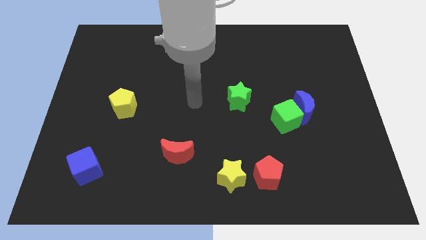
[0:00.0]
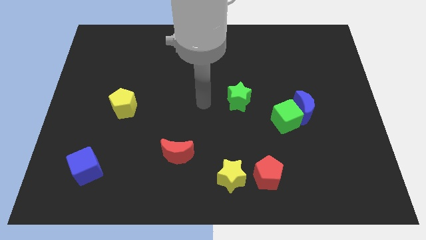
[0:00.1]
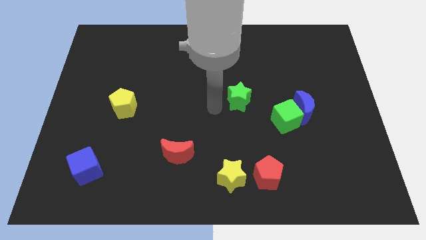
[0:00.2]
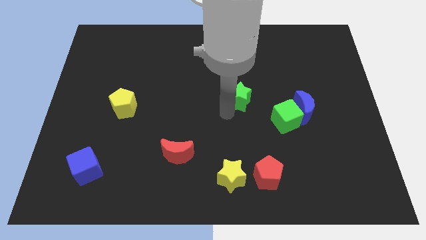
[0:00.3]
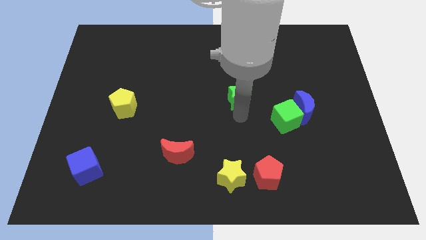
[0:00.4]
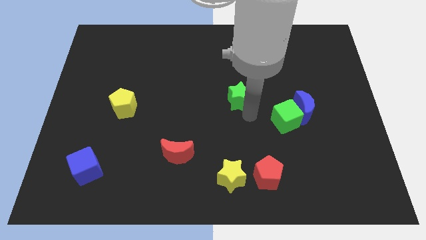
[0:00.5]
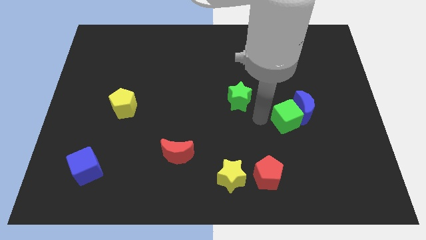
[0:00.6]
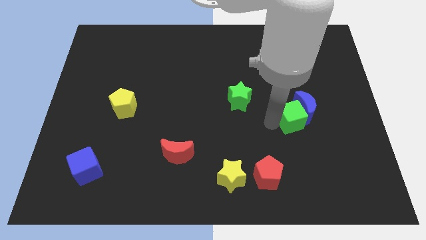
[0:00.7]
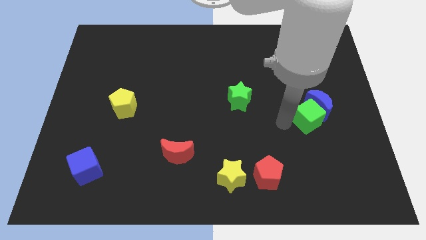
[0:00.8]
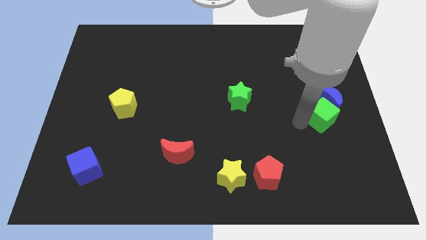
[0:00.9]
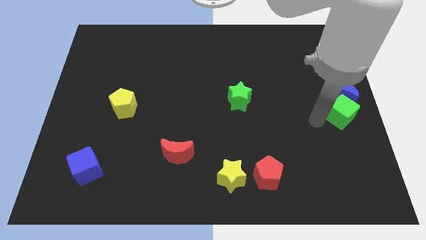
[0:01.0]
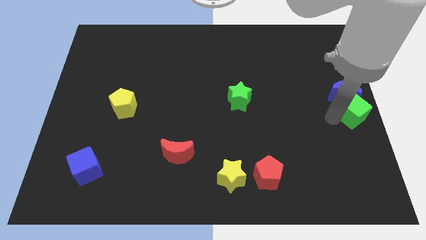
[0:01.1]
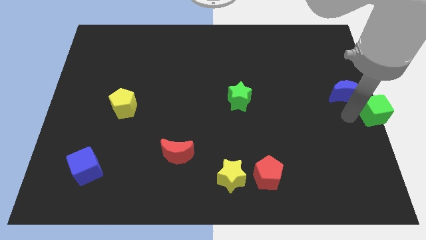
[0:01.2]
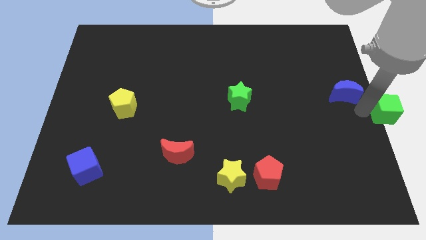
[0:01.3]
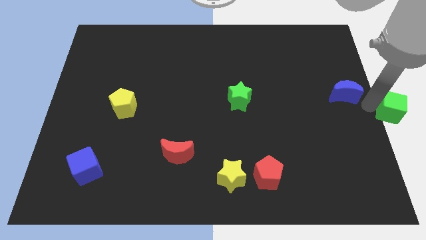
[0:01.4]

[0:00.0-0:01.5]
separate the blue moon from the green cube

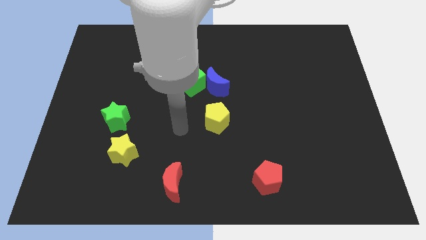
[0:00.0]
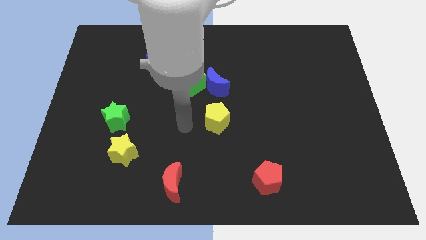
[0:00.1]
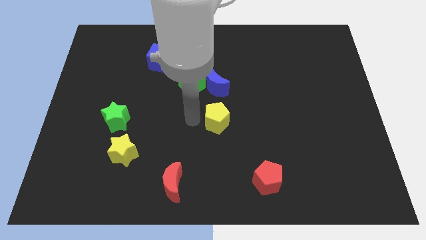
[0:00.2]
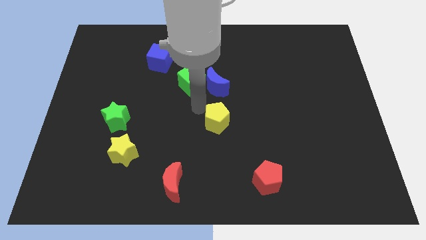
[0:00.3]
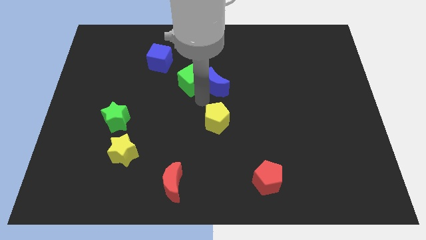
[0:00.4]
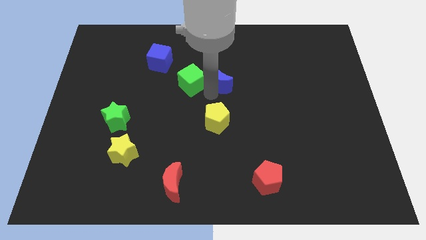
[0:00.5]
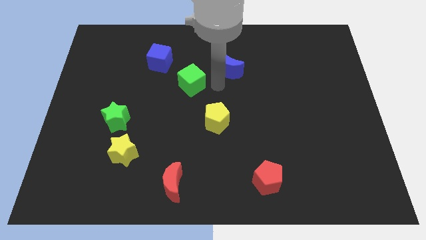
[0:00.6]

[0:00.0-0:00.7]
move the green cube away from the blue moon

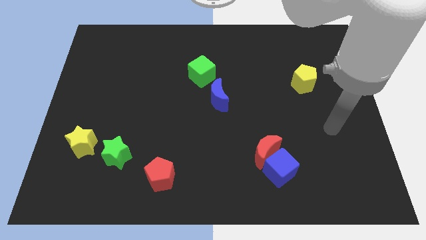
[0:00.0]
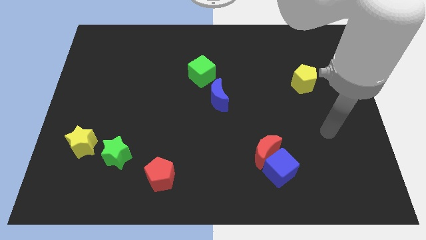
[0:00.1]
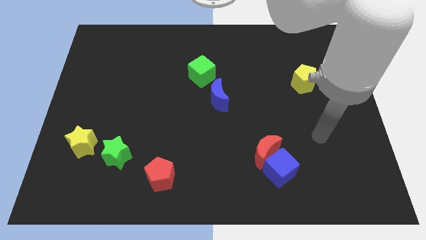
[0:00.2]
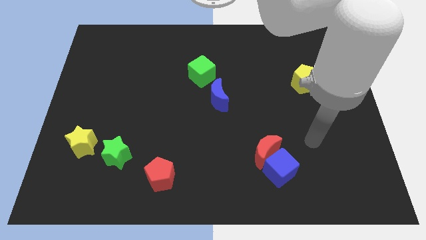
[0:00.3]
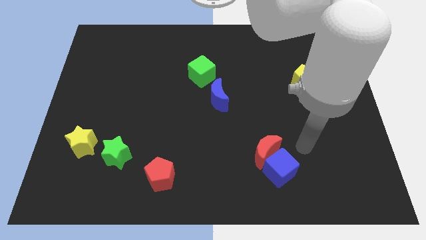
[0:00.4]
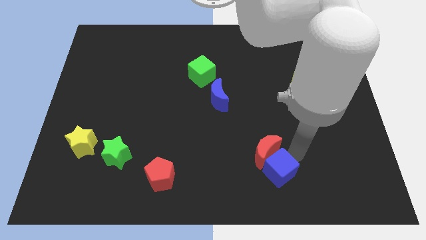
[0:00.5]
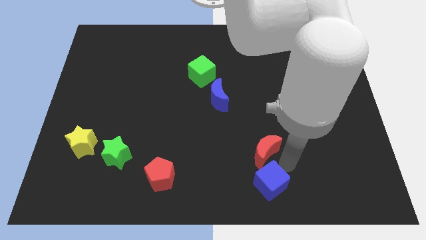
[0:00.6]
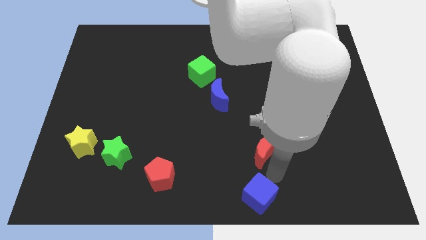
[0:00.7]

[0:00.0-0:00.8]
separate the red moon from the blue cube

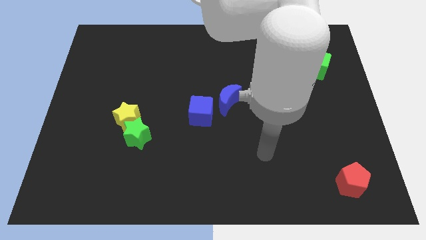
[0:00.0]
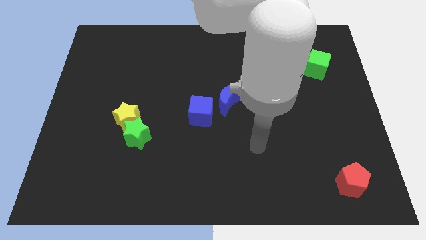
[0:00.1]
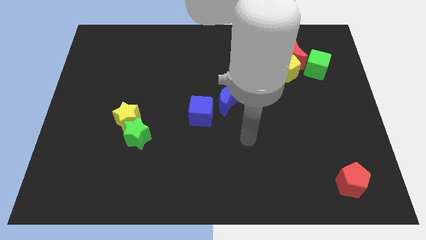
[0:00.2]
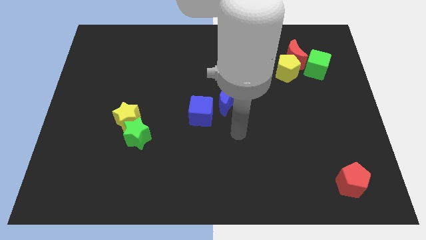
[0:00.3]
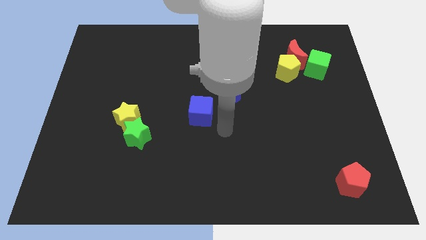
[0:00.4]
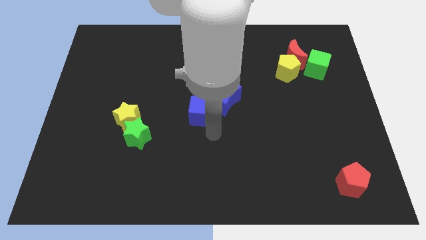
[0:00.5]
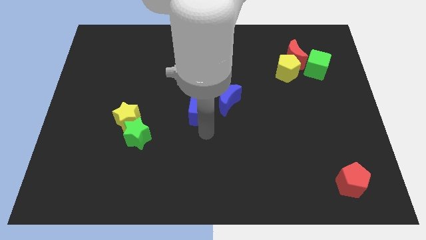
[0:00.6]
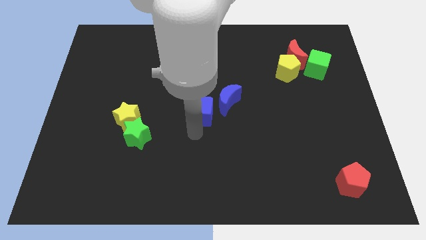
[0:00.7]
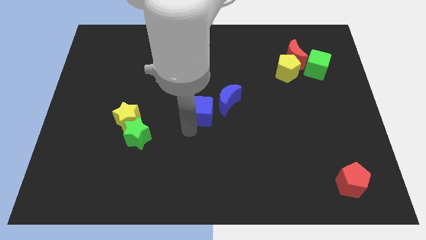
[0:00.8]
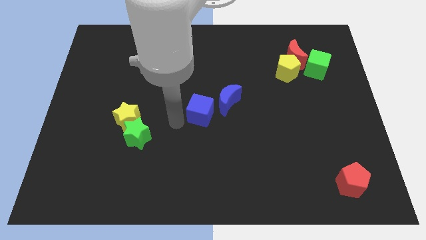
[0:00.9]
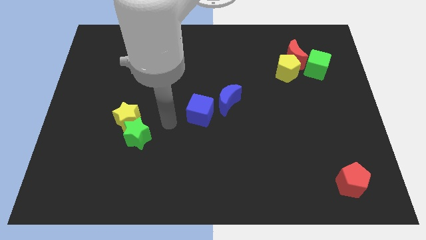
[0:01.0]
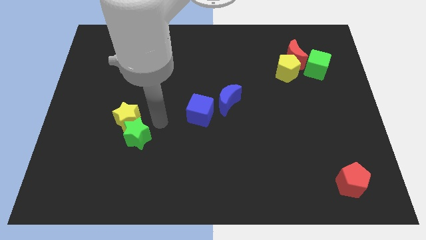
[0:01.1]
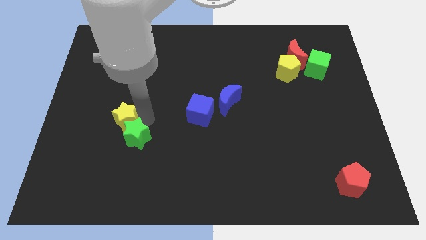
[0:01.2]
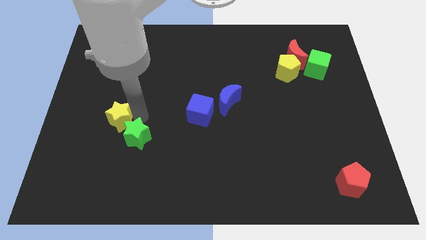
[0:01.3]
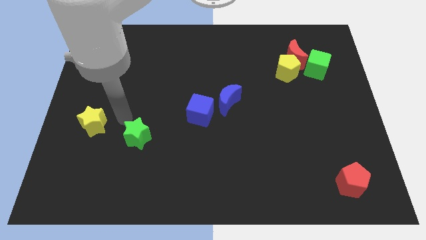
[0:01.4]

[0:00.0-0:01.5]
pull the green star apart from the yellow star

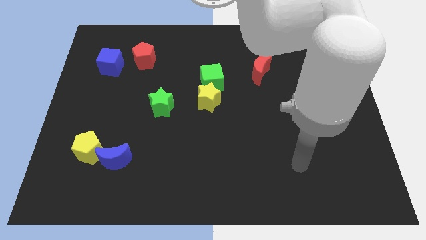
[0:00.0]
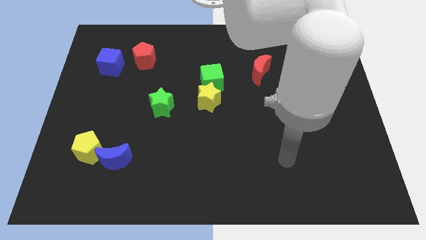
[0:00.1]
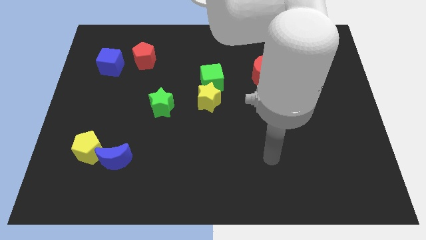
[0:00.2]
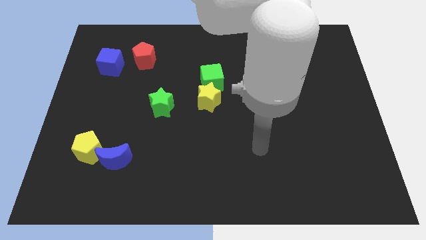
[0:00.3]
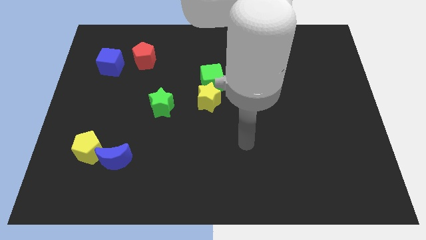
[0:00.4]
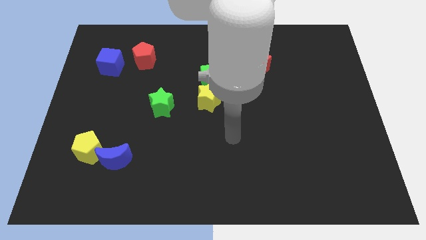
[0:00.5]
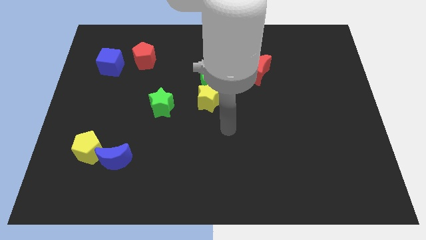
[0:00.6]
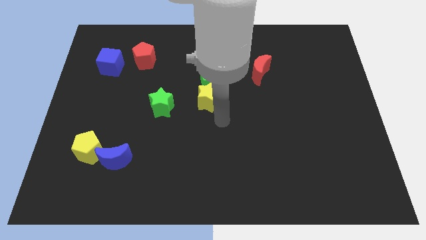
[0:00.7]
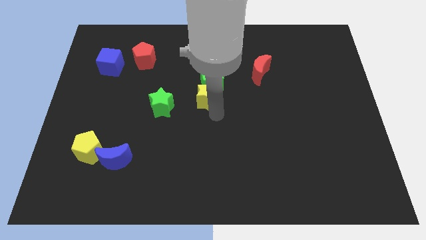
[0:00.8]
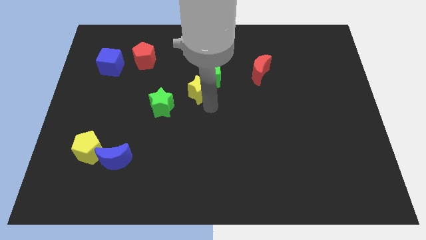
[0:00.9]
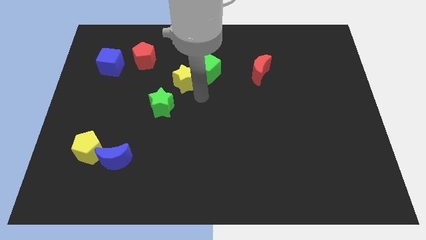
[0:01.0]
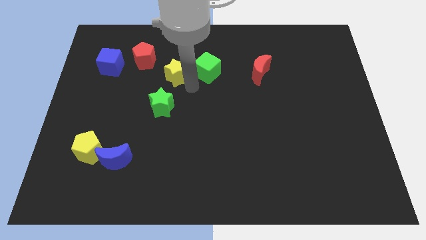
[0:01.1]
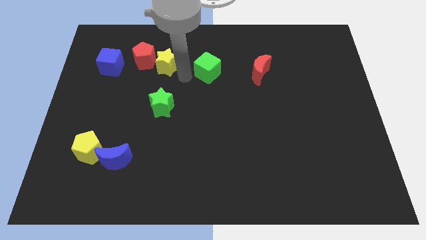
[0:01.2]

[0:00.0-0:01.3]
separate the green cube from the yellow star

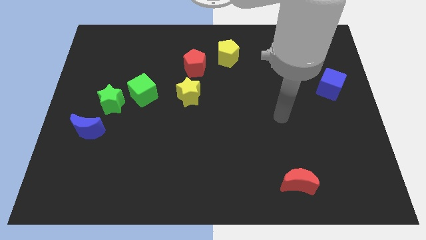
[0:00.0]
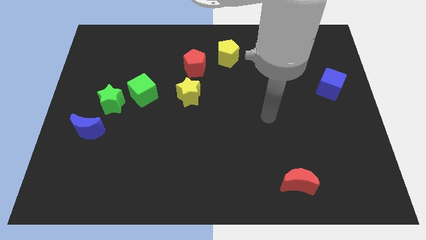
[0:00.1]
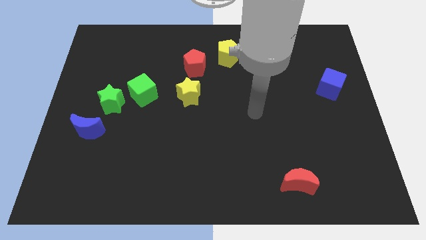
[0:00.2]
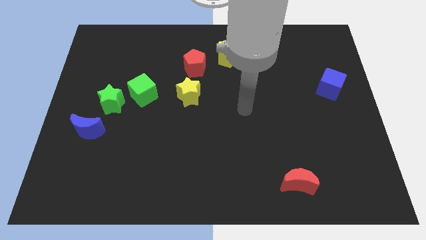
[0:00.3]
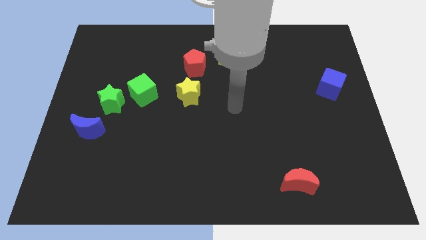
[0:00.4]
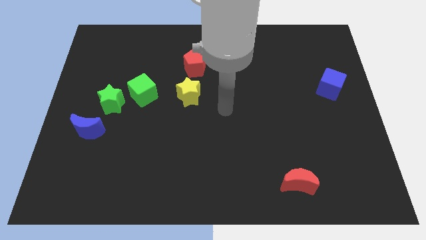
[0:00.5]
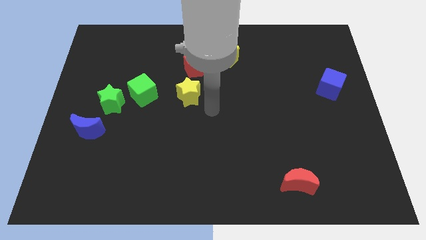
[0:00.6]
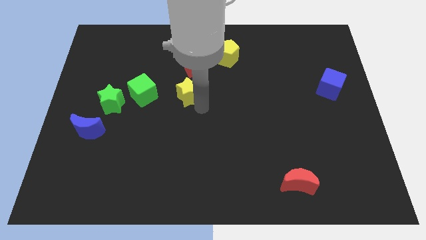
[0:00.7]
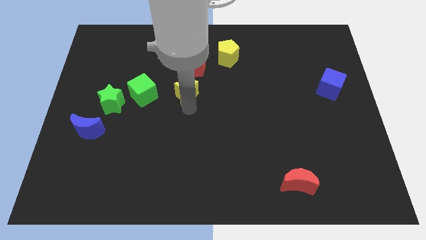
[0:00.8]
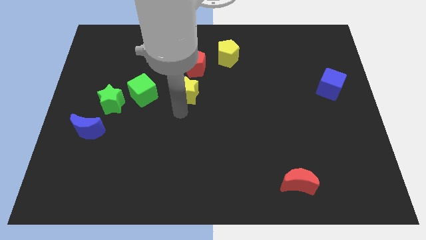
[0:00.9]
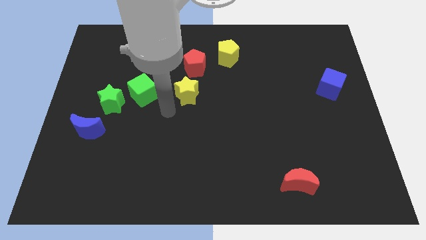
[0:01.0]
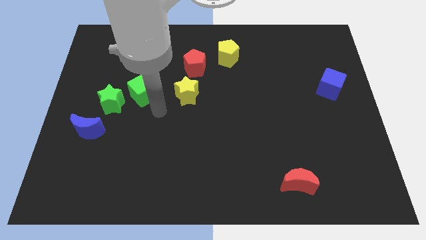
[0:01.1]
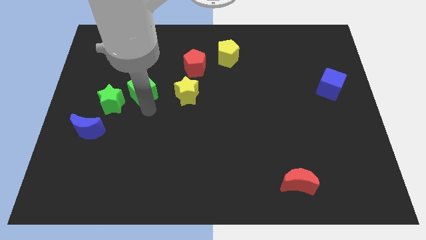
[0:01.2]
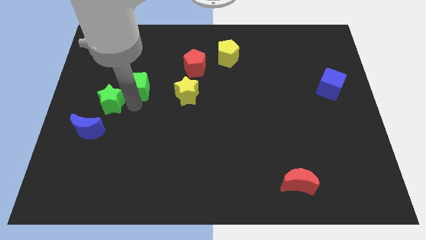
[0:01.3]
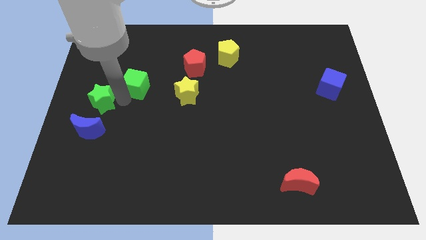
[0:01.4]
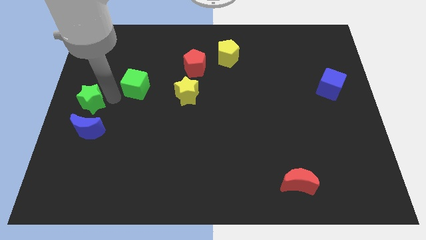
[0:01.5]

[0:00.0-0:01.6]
move the green cube away from the green star

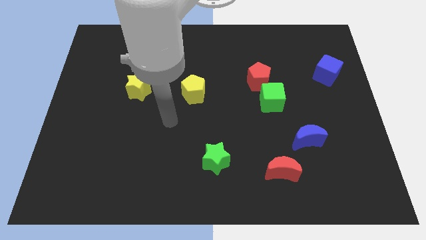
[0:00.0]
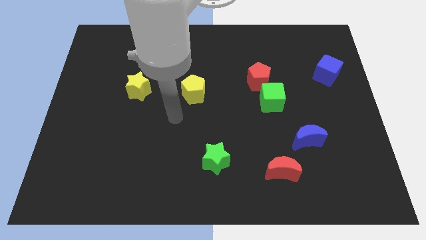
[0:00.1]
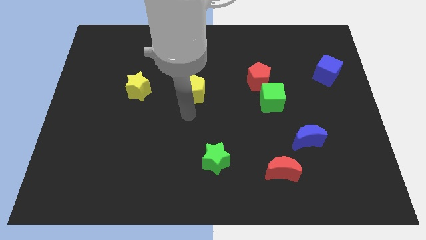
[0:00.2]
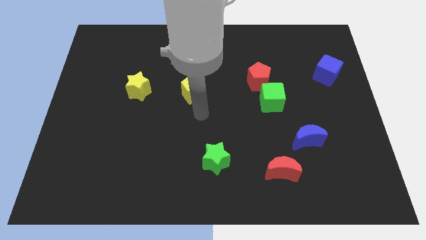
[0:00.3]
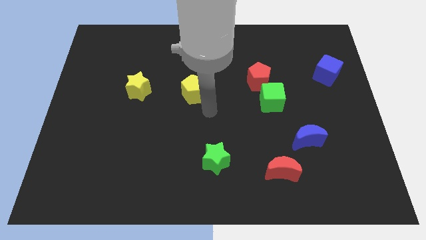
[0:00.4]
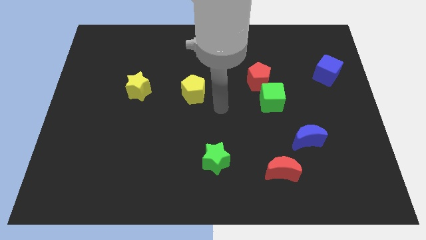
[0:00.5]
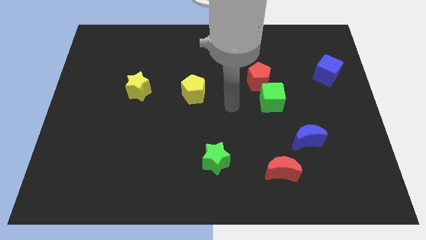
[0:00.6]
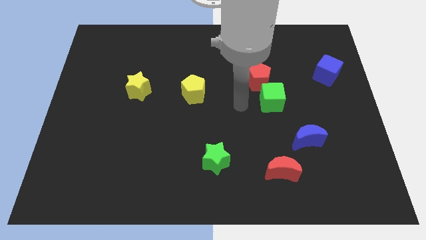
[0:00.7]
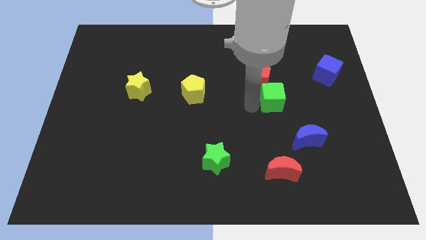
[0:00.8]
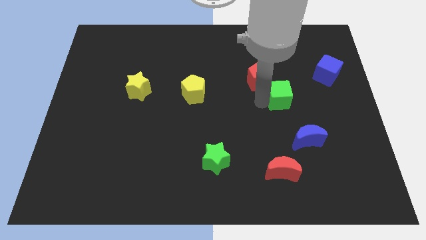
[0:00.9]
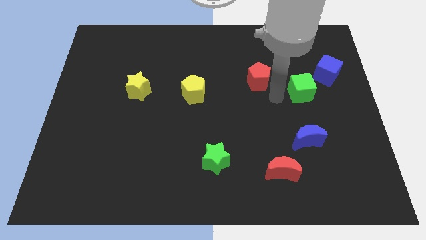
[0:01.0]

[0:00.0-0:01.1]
pull the red pentagon apart from the green cube

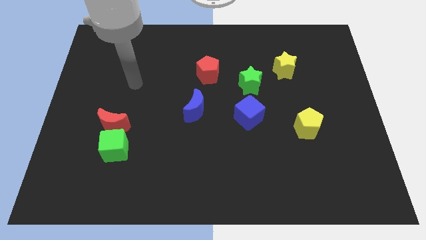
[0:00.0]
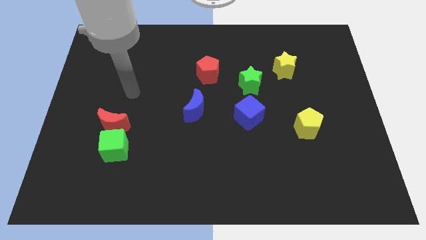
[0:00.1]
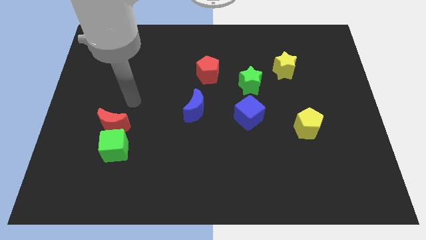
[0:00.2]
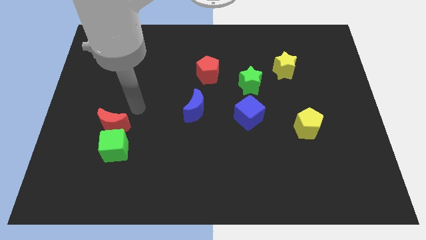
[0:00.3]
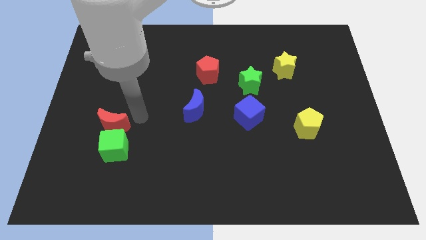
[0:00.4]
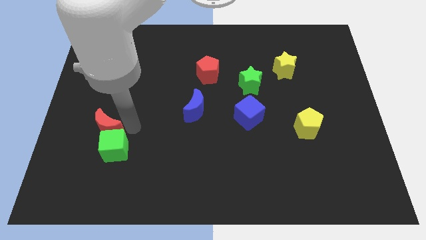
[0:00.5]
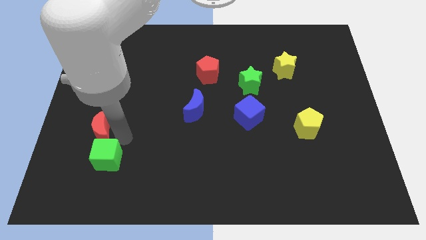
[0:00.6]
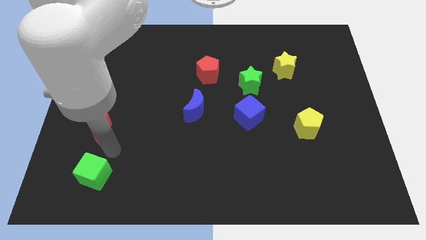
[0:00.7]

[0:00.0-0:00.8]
separate the red moon from the green cube
